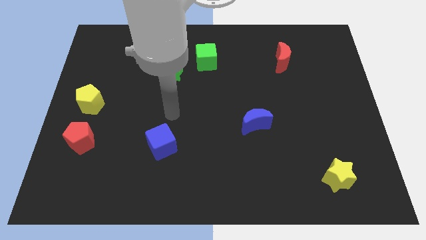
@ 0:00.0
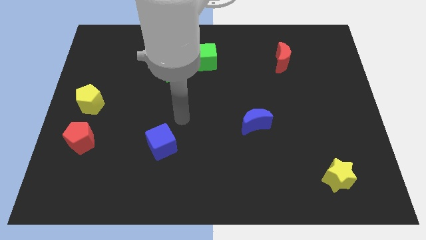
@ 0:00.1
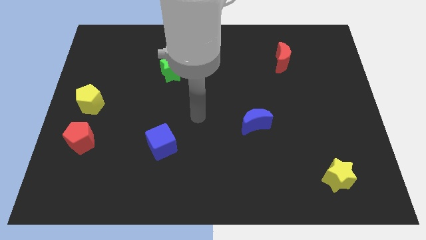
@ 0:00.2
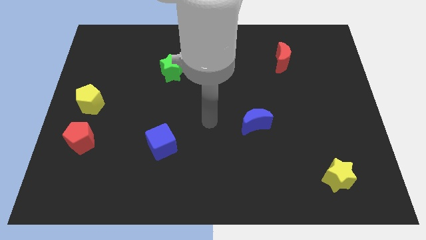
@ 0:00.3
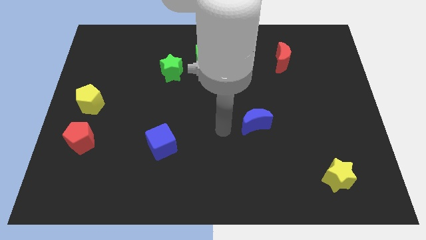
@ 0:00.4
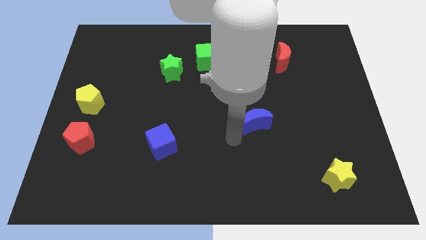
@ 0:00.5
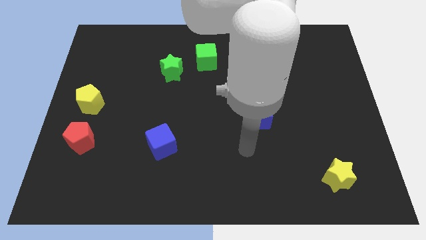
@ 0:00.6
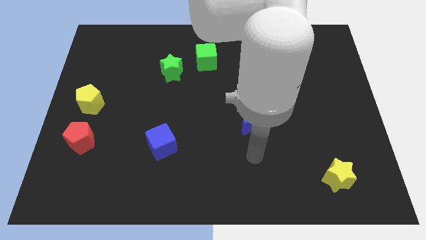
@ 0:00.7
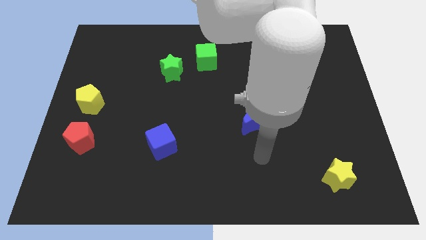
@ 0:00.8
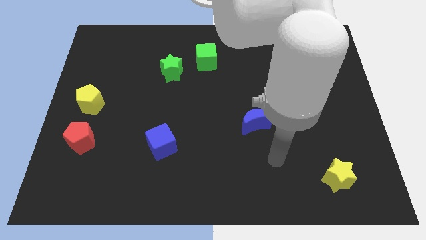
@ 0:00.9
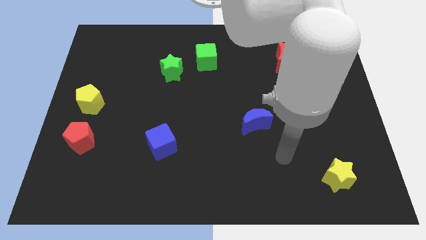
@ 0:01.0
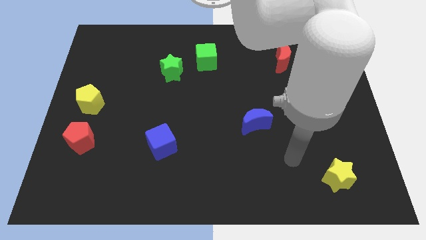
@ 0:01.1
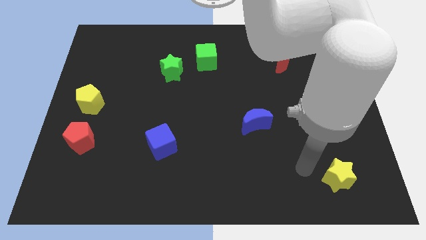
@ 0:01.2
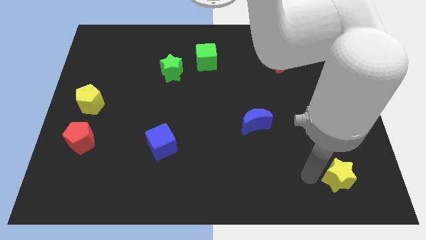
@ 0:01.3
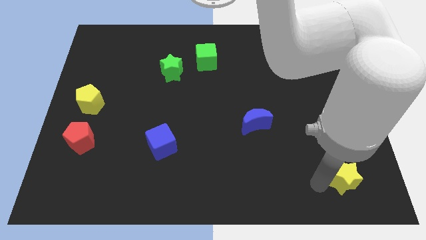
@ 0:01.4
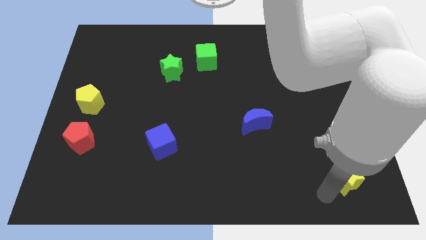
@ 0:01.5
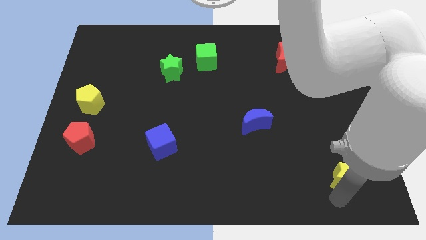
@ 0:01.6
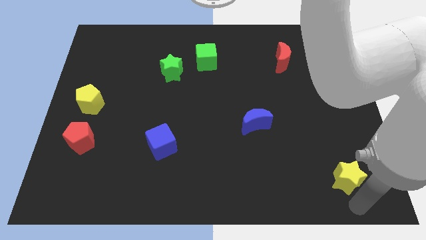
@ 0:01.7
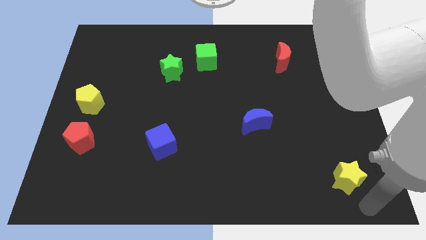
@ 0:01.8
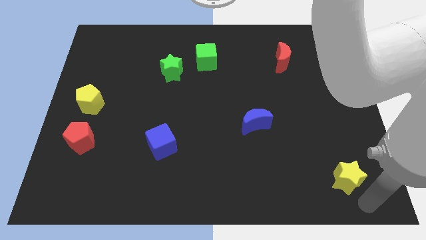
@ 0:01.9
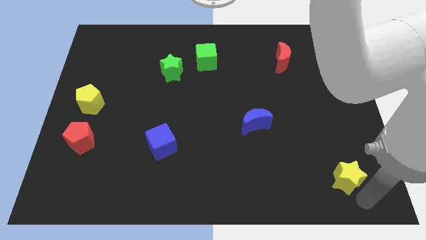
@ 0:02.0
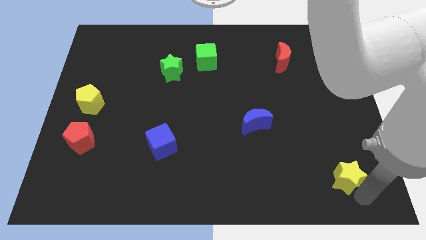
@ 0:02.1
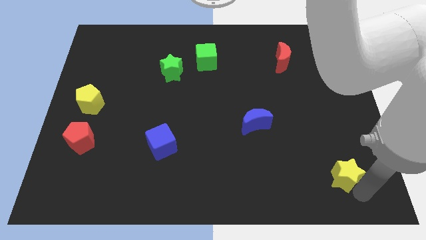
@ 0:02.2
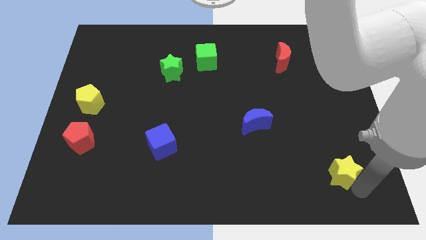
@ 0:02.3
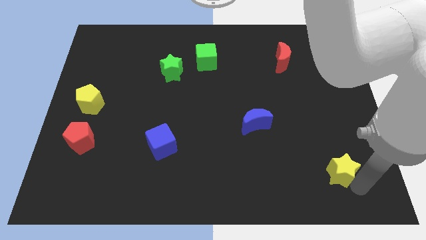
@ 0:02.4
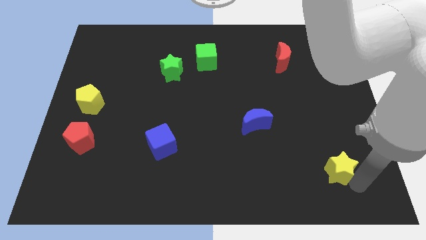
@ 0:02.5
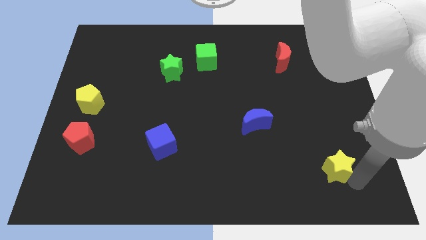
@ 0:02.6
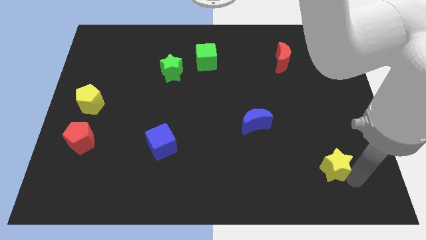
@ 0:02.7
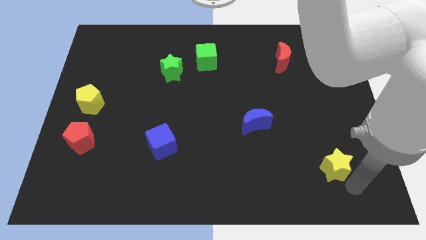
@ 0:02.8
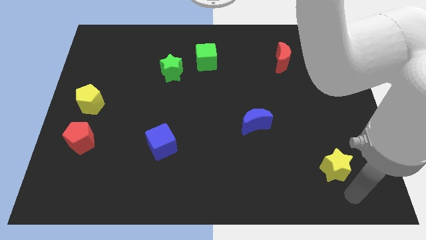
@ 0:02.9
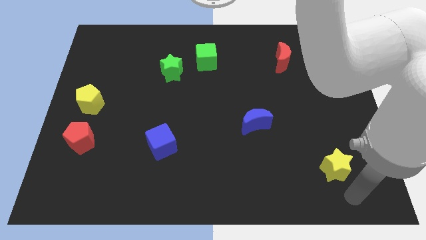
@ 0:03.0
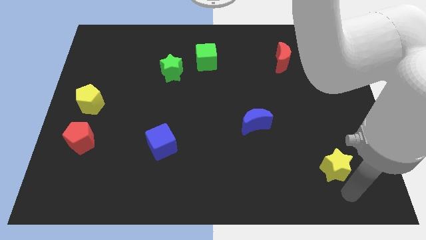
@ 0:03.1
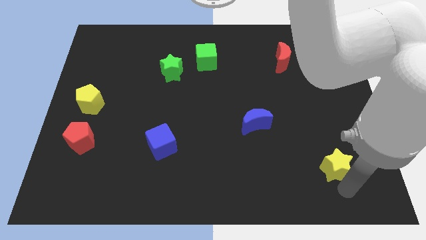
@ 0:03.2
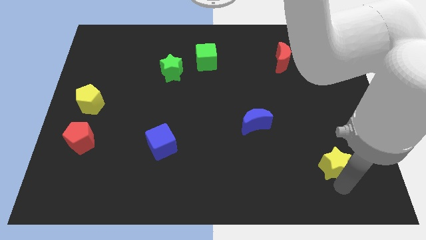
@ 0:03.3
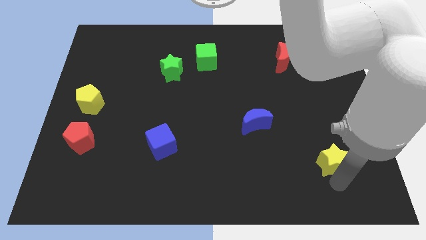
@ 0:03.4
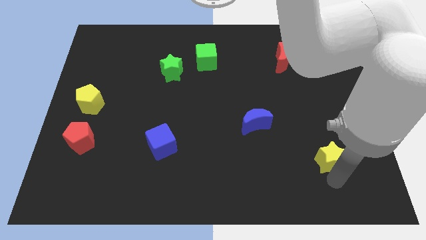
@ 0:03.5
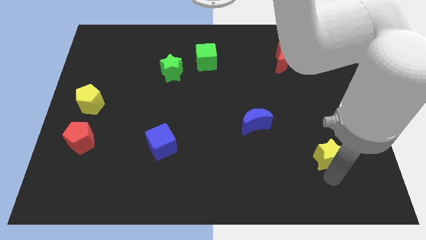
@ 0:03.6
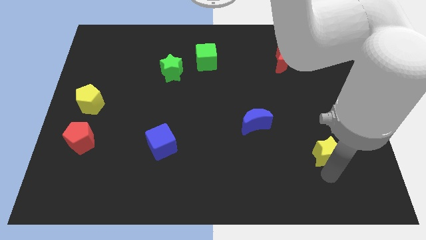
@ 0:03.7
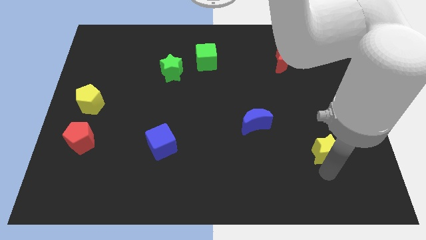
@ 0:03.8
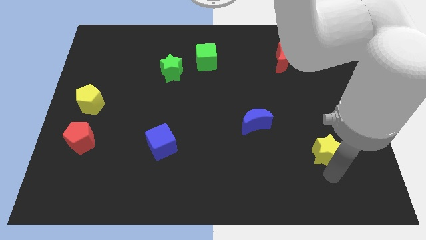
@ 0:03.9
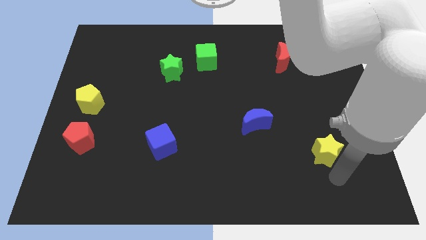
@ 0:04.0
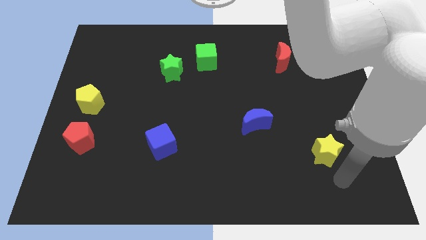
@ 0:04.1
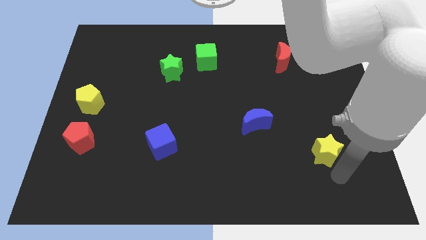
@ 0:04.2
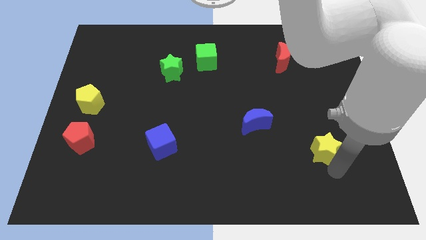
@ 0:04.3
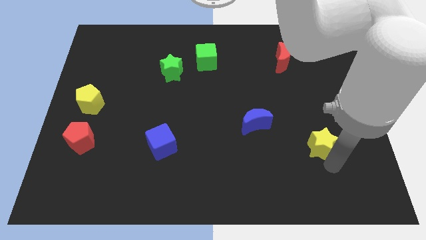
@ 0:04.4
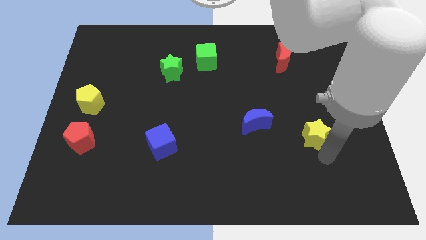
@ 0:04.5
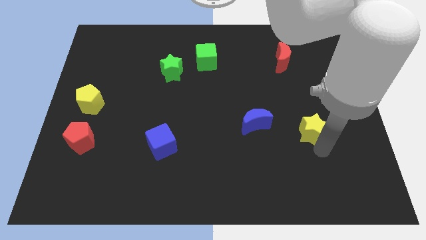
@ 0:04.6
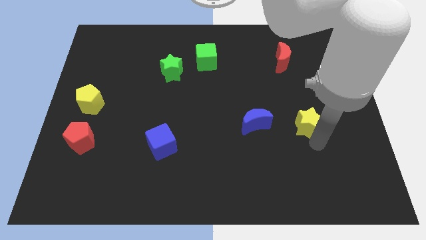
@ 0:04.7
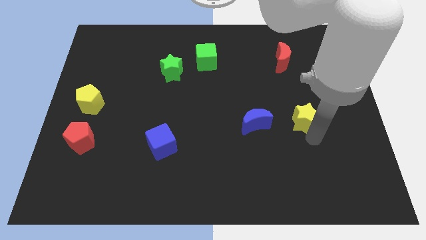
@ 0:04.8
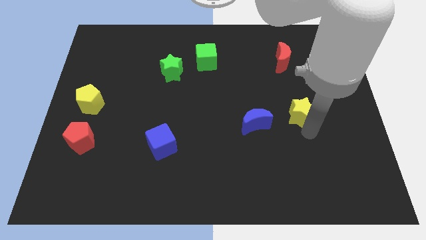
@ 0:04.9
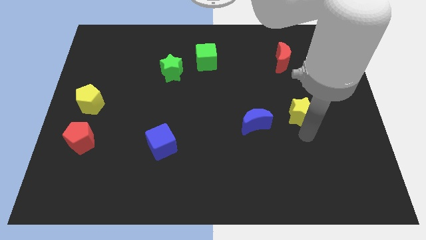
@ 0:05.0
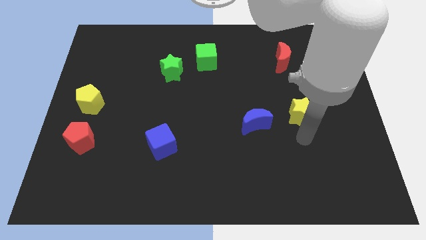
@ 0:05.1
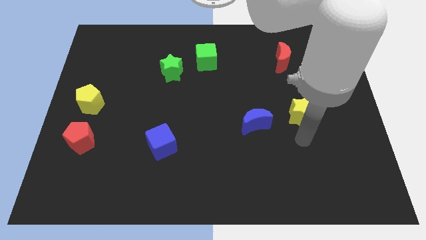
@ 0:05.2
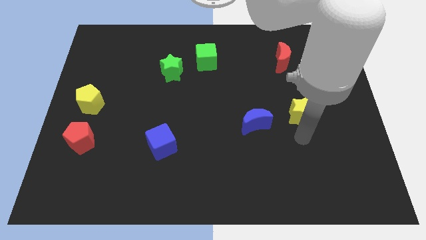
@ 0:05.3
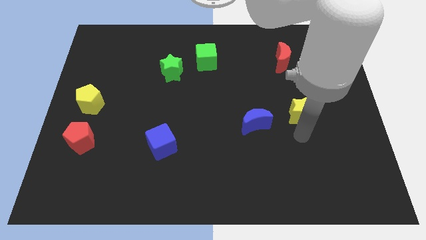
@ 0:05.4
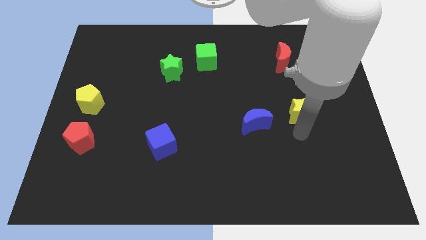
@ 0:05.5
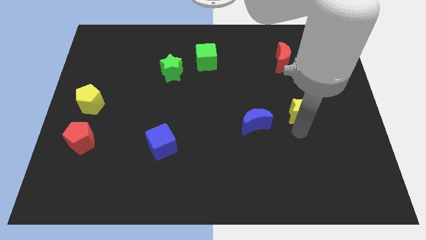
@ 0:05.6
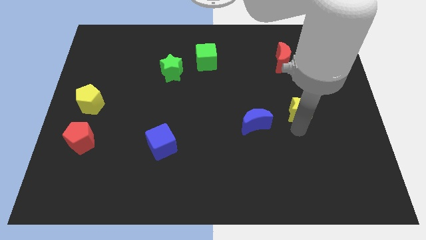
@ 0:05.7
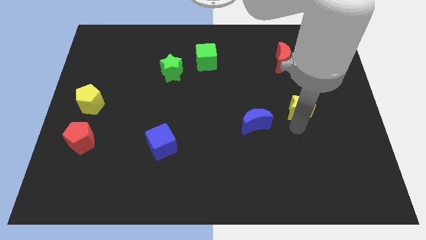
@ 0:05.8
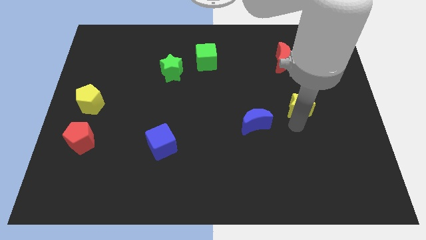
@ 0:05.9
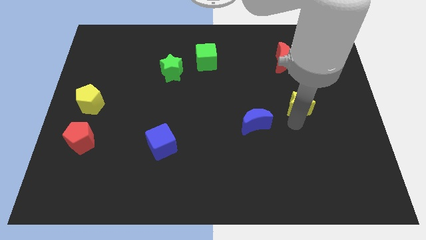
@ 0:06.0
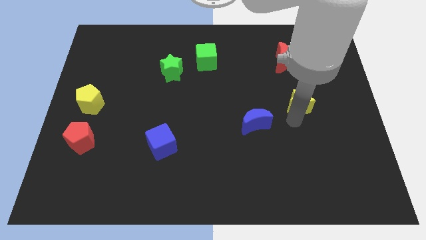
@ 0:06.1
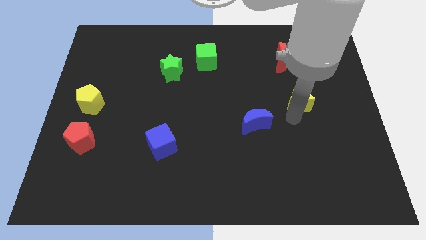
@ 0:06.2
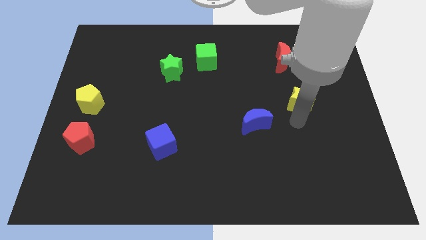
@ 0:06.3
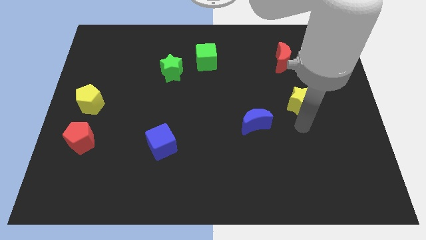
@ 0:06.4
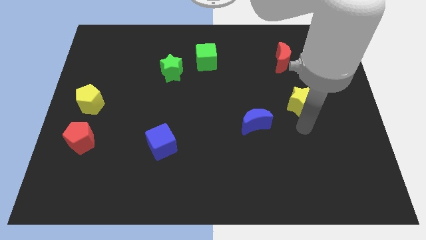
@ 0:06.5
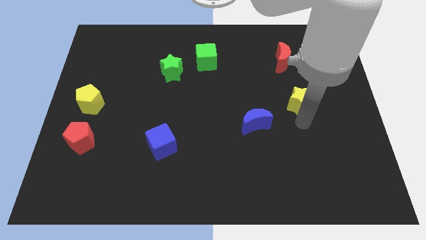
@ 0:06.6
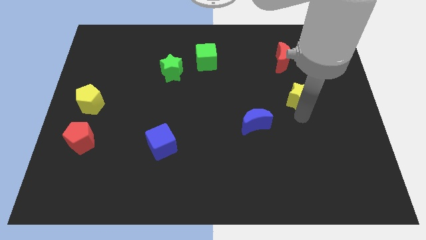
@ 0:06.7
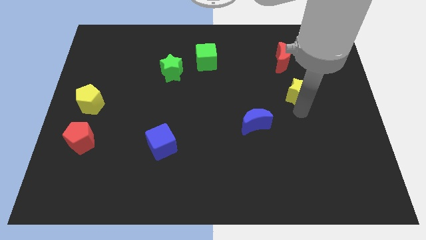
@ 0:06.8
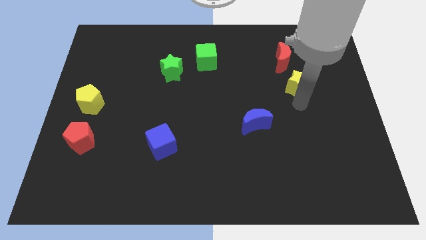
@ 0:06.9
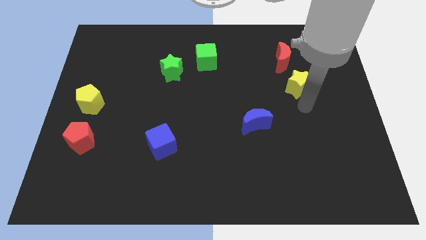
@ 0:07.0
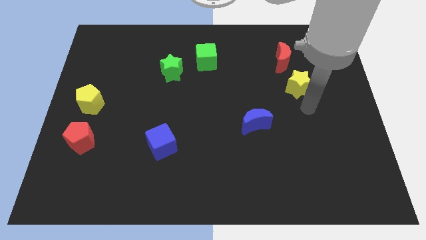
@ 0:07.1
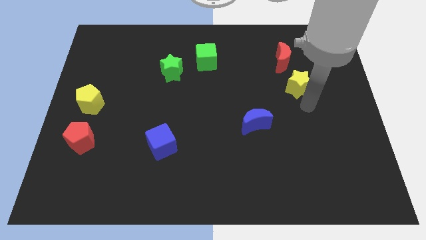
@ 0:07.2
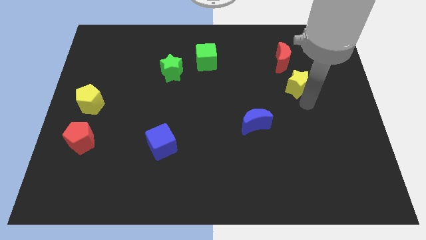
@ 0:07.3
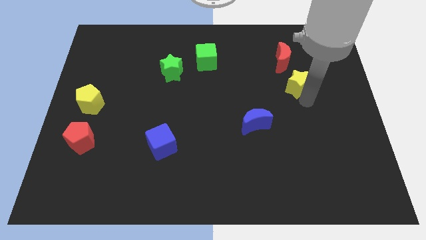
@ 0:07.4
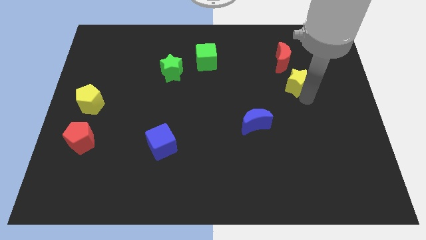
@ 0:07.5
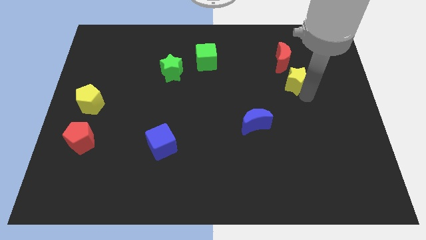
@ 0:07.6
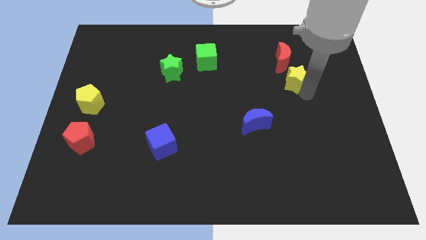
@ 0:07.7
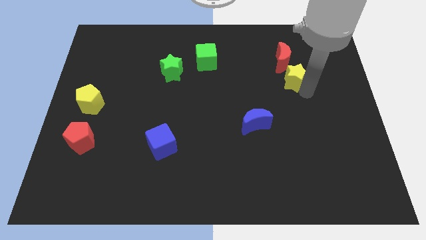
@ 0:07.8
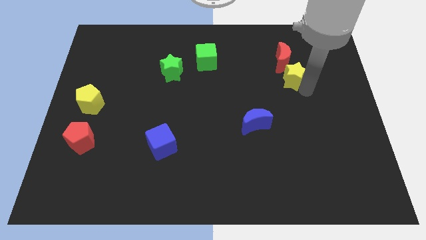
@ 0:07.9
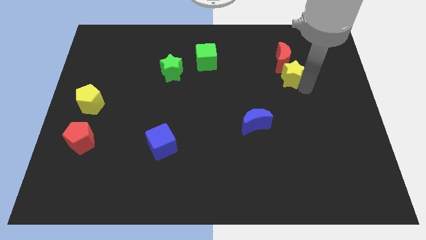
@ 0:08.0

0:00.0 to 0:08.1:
push the yellow star towards the red moon
